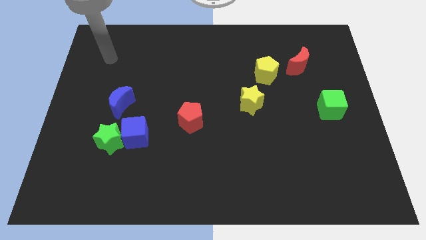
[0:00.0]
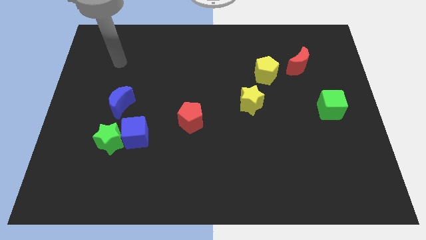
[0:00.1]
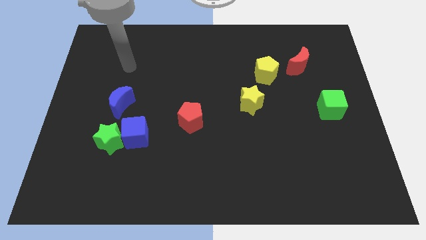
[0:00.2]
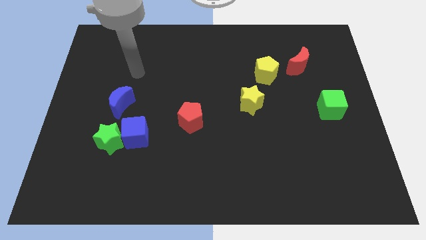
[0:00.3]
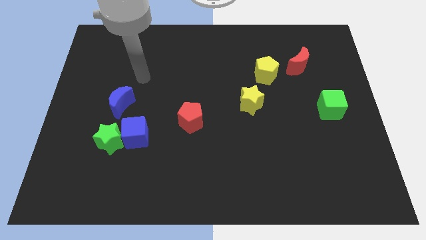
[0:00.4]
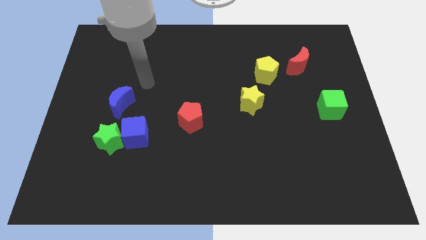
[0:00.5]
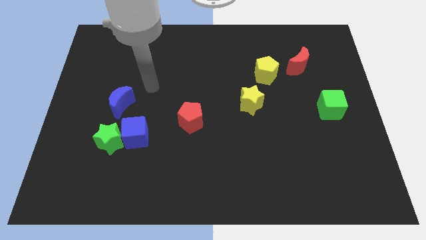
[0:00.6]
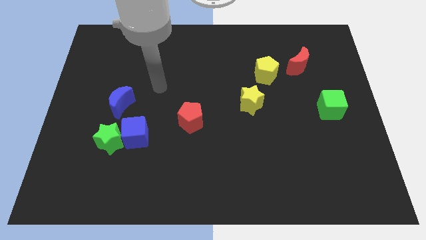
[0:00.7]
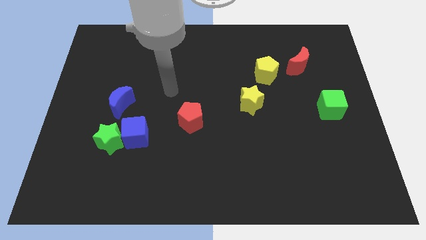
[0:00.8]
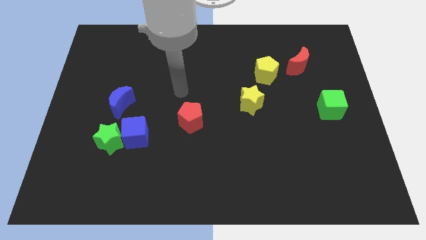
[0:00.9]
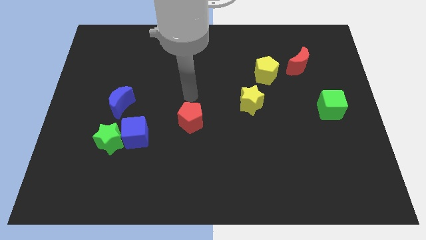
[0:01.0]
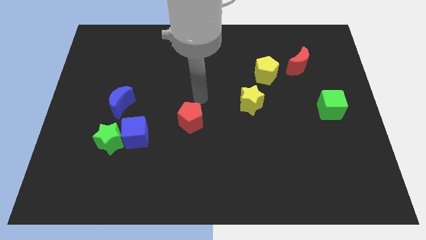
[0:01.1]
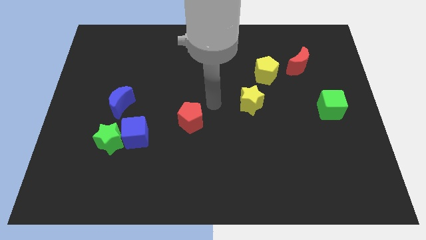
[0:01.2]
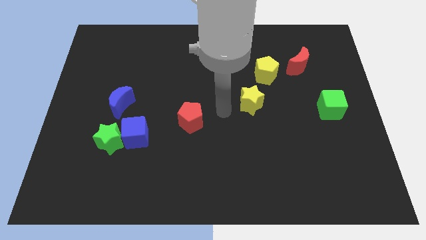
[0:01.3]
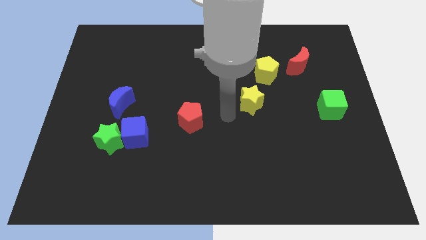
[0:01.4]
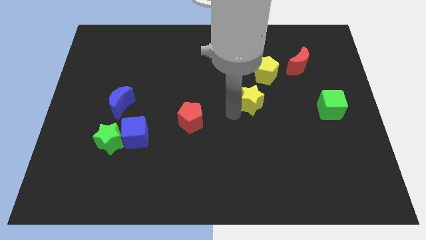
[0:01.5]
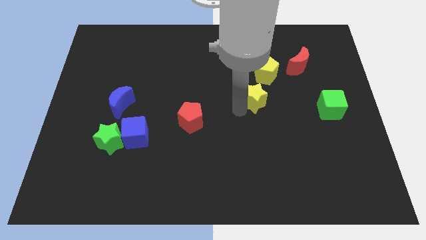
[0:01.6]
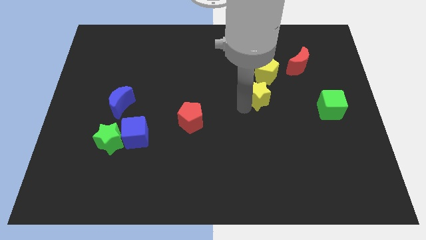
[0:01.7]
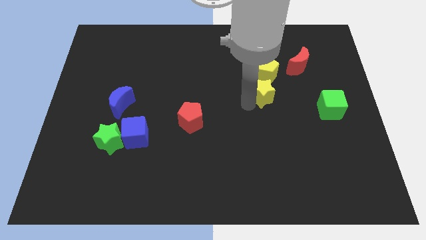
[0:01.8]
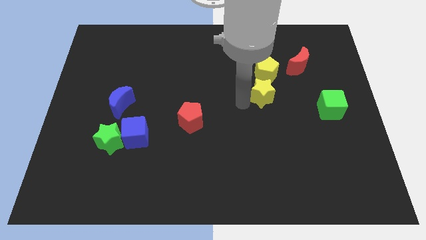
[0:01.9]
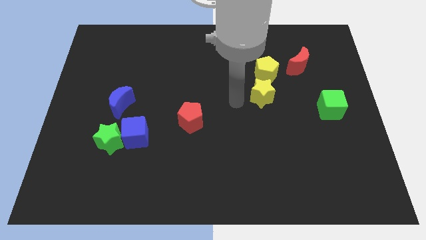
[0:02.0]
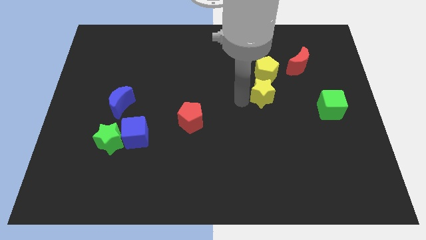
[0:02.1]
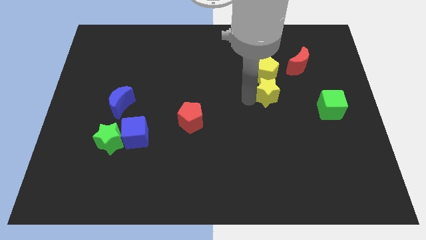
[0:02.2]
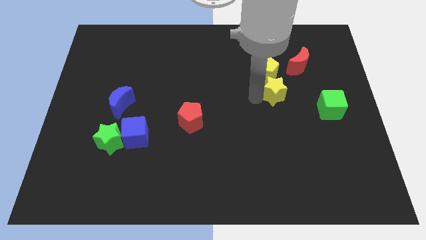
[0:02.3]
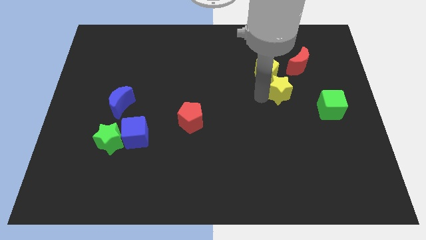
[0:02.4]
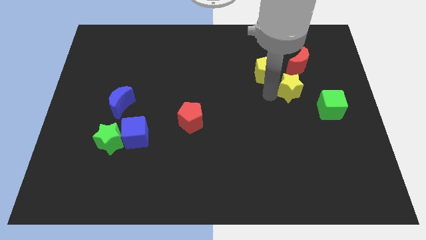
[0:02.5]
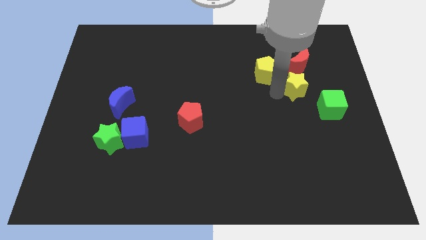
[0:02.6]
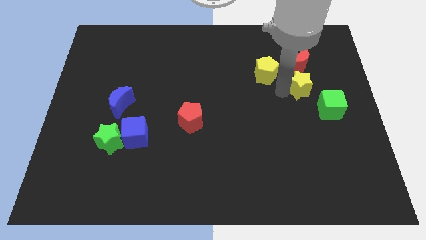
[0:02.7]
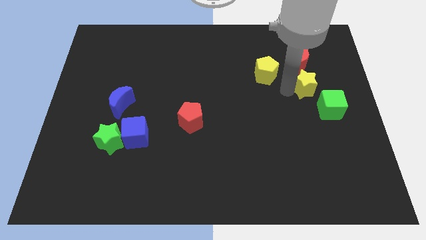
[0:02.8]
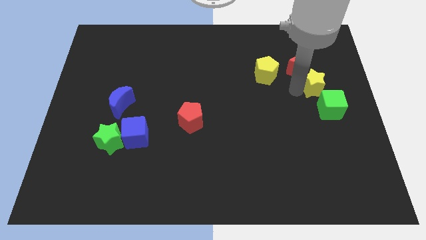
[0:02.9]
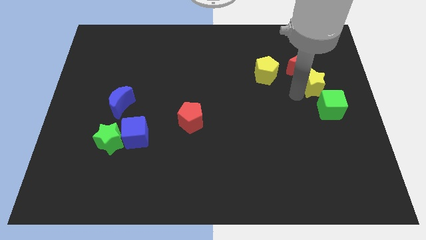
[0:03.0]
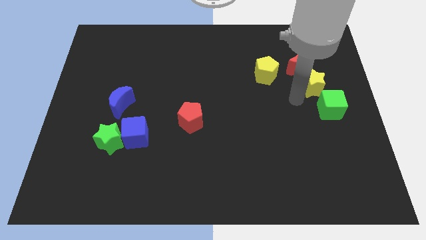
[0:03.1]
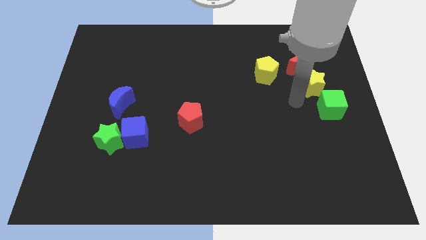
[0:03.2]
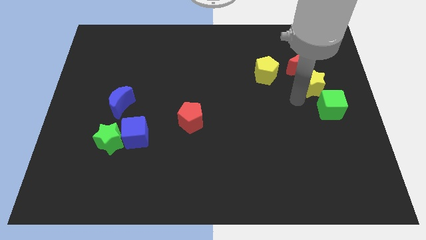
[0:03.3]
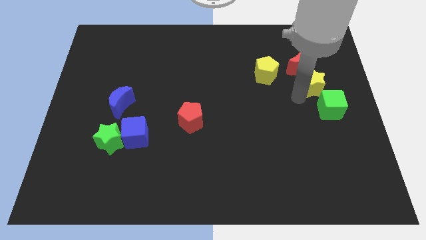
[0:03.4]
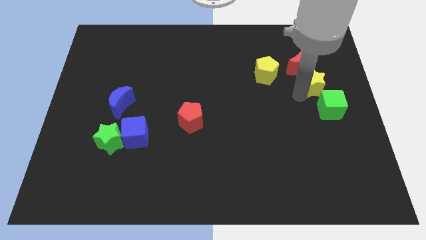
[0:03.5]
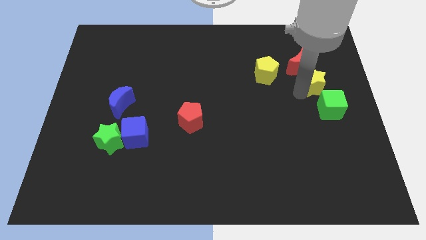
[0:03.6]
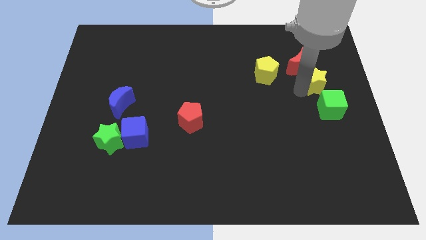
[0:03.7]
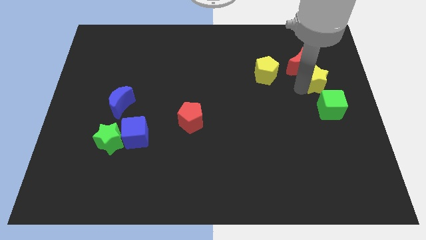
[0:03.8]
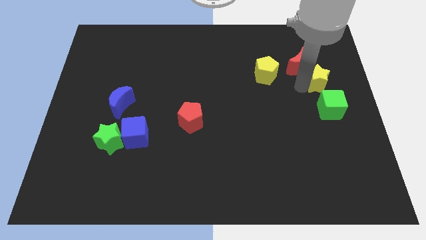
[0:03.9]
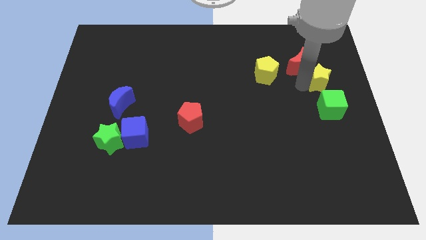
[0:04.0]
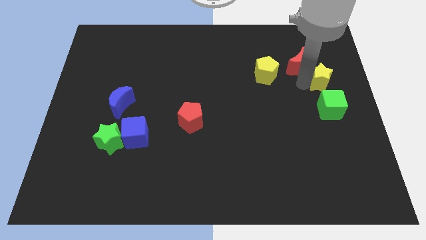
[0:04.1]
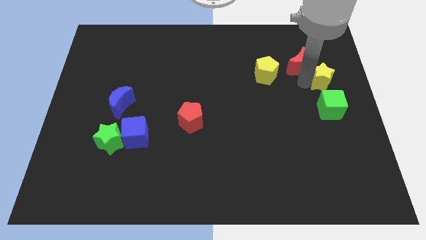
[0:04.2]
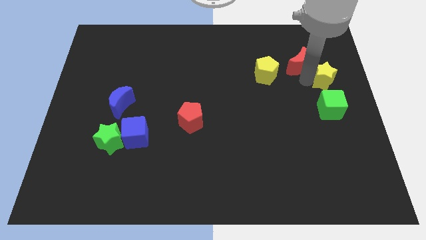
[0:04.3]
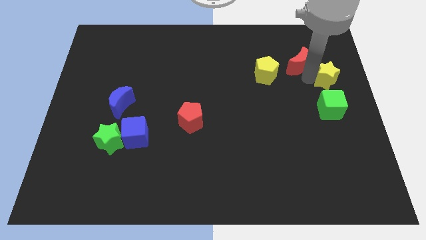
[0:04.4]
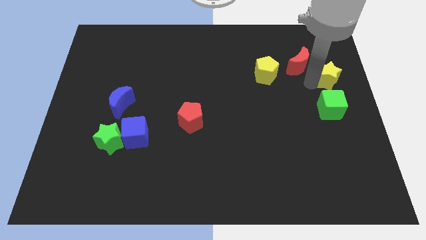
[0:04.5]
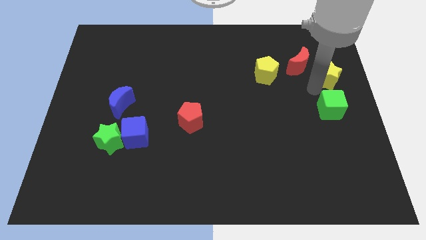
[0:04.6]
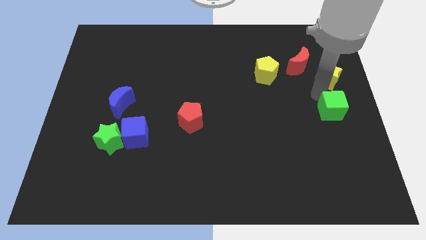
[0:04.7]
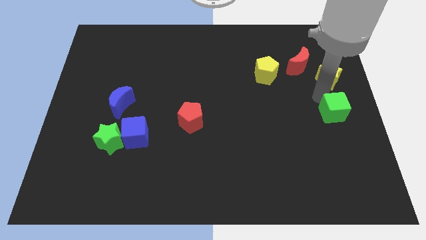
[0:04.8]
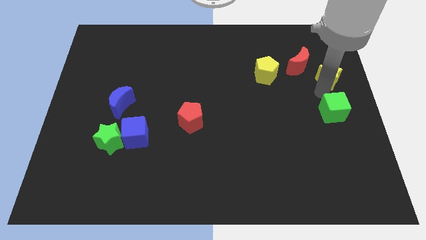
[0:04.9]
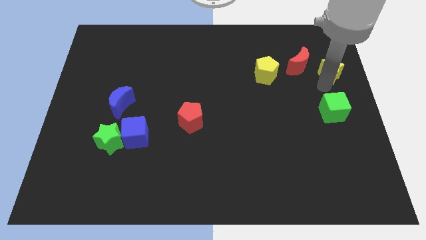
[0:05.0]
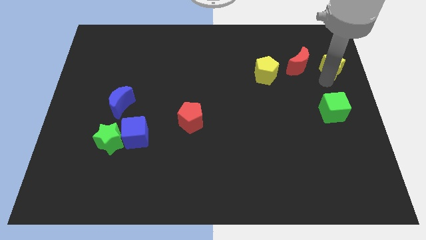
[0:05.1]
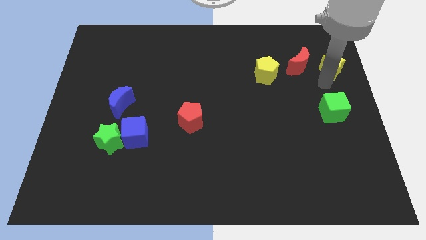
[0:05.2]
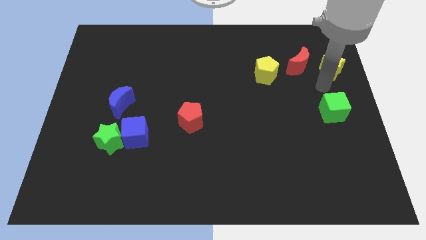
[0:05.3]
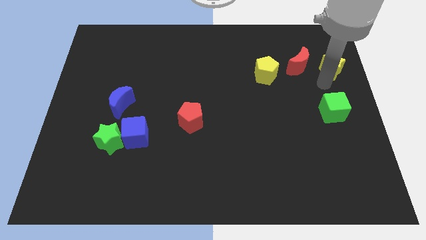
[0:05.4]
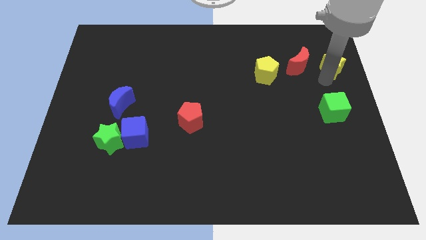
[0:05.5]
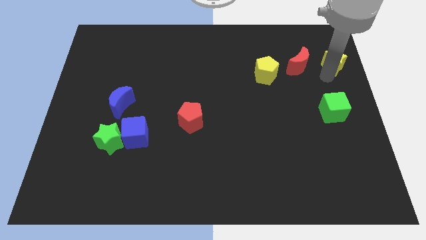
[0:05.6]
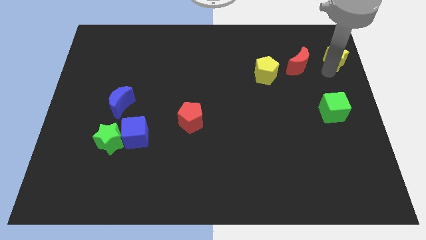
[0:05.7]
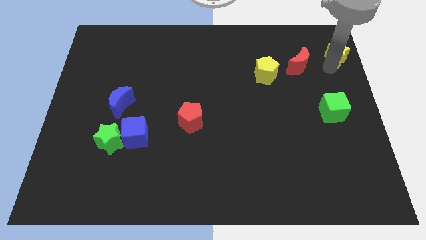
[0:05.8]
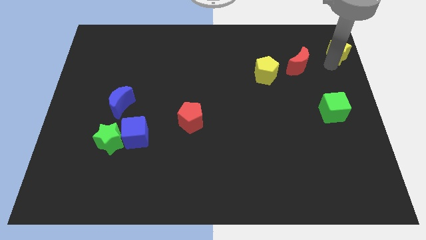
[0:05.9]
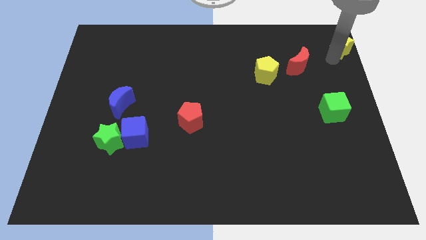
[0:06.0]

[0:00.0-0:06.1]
put the yellow star to the top right corner

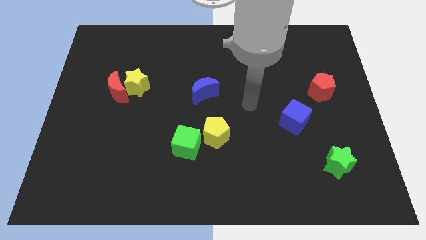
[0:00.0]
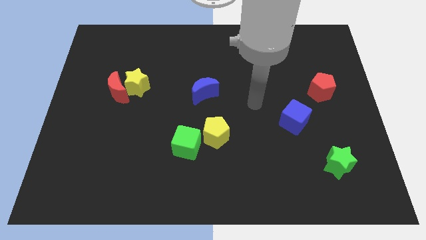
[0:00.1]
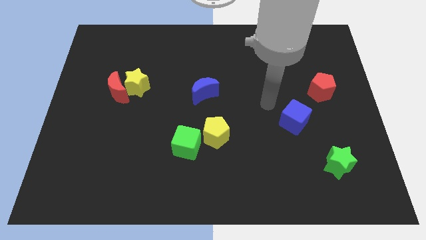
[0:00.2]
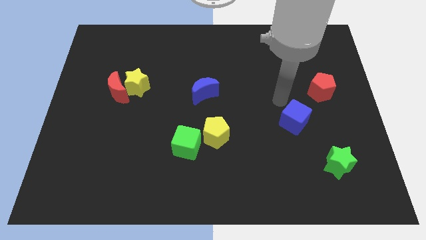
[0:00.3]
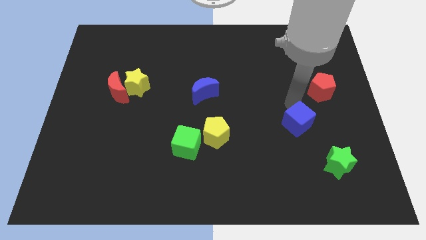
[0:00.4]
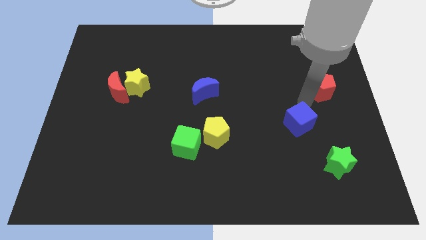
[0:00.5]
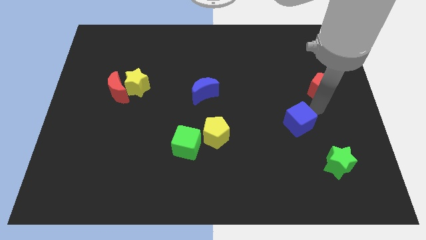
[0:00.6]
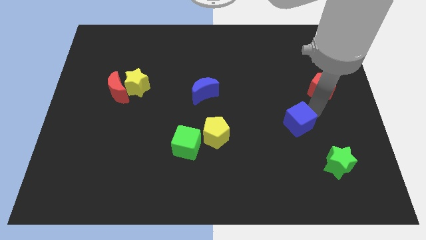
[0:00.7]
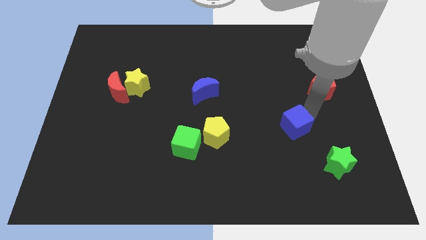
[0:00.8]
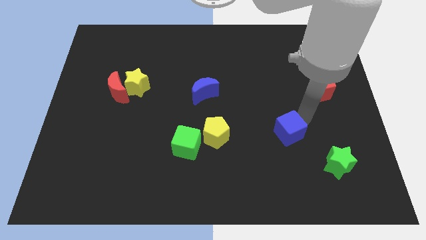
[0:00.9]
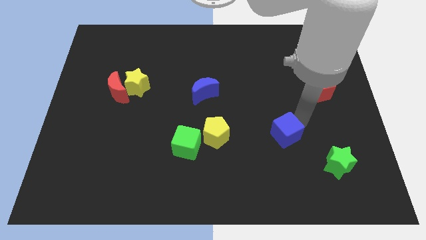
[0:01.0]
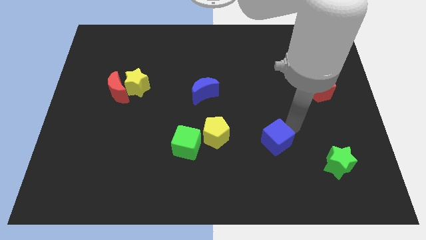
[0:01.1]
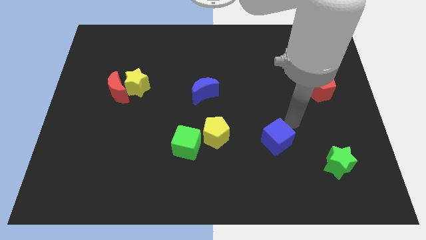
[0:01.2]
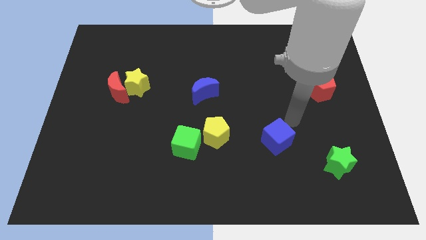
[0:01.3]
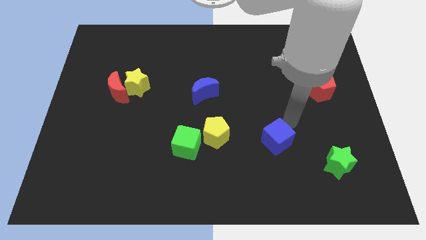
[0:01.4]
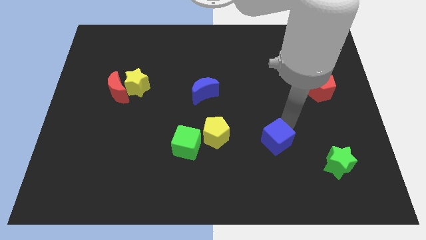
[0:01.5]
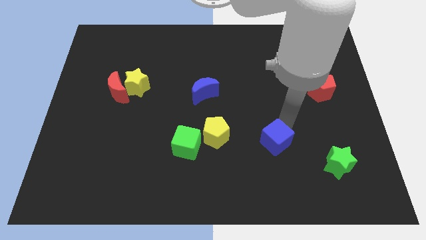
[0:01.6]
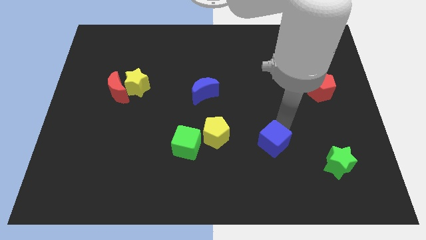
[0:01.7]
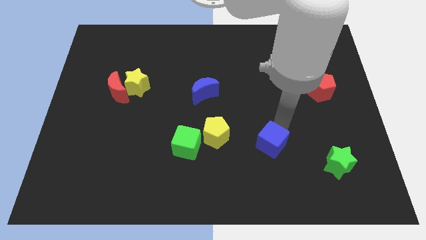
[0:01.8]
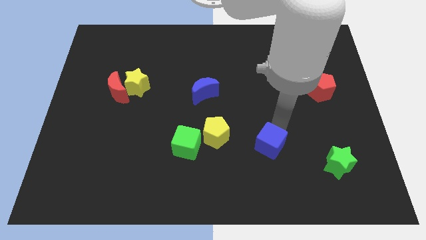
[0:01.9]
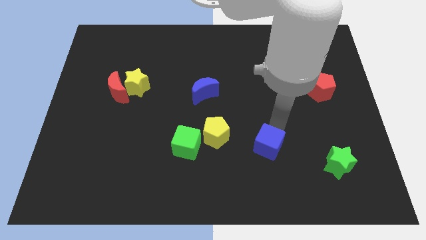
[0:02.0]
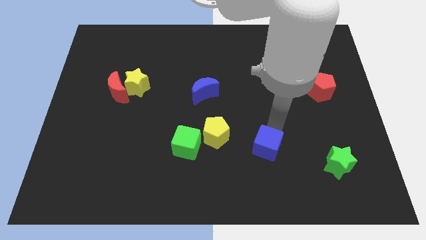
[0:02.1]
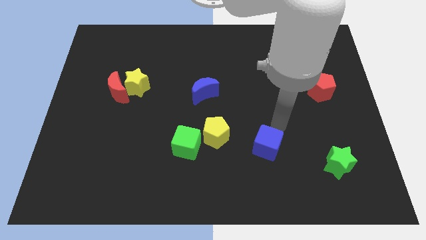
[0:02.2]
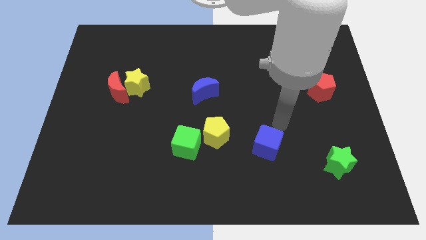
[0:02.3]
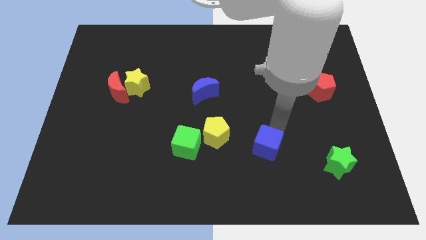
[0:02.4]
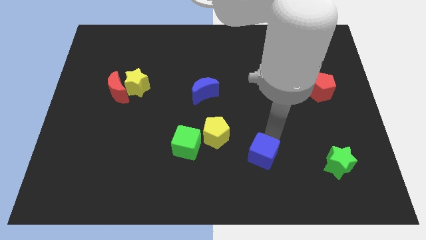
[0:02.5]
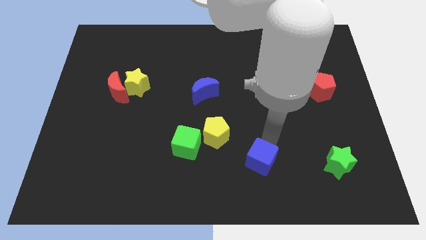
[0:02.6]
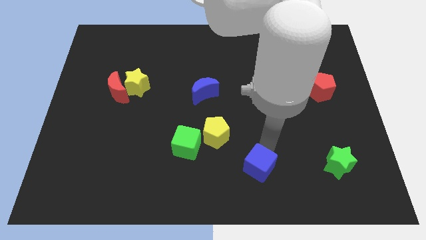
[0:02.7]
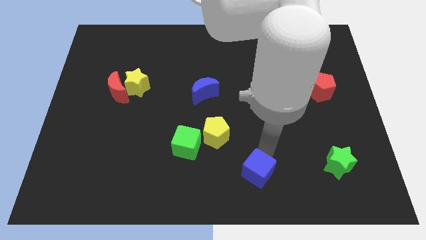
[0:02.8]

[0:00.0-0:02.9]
slide the blue cube to the bottom side
